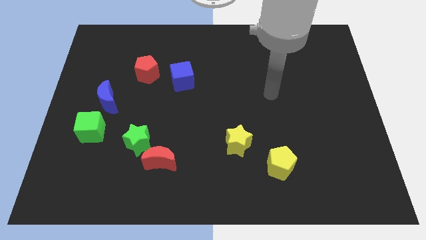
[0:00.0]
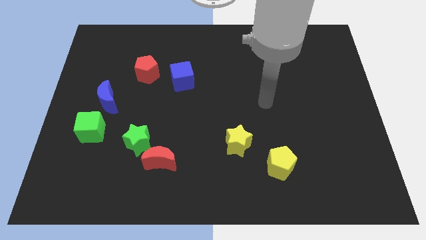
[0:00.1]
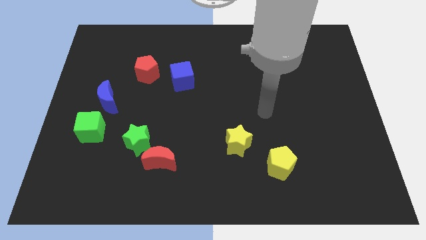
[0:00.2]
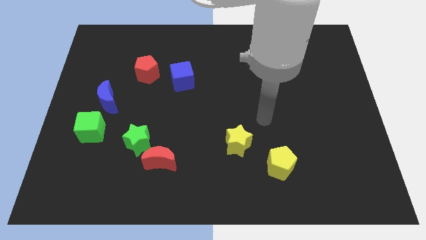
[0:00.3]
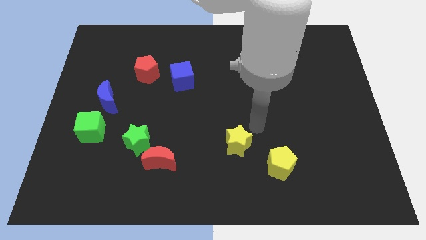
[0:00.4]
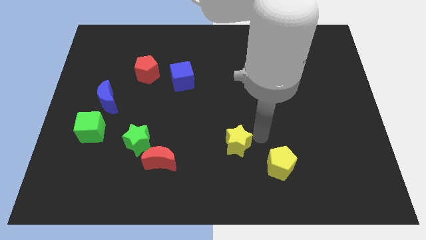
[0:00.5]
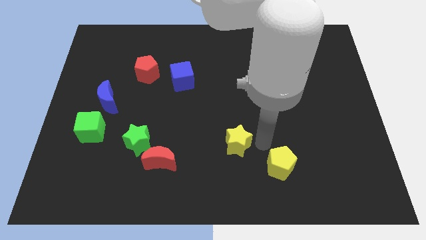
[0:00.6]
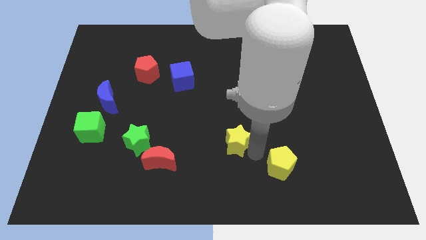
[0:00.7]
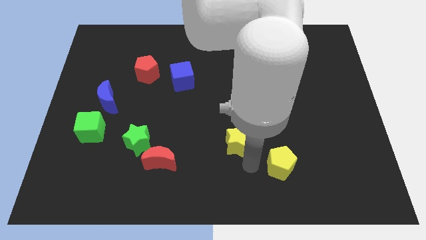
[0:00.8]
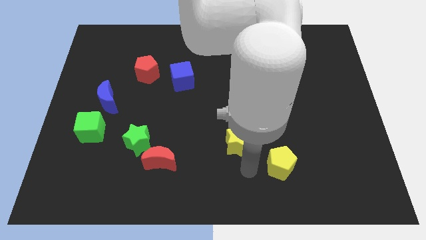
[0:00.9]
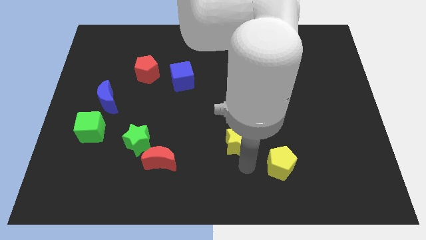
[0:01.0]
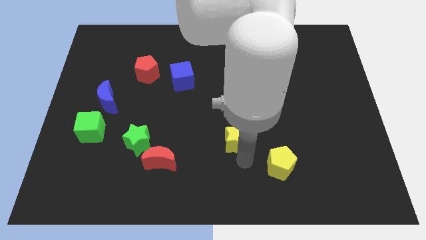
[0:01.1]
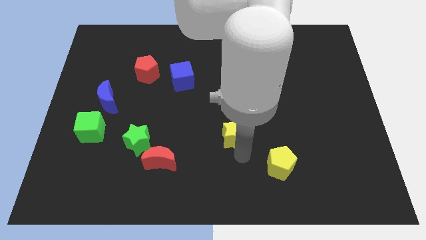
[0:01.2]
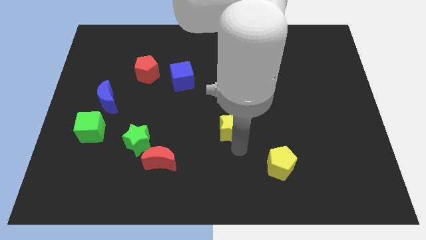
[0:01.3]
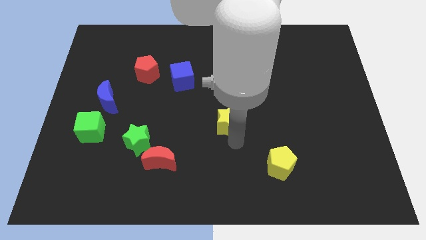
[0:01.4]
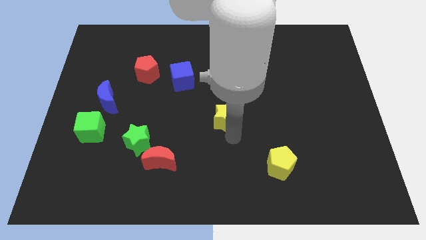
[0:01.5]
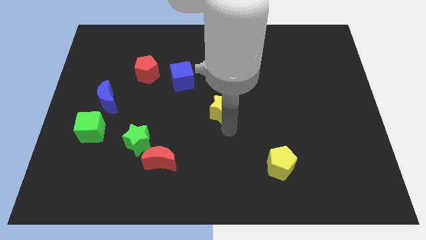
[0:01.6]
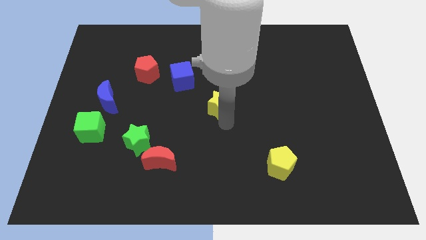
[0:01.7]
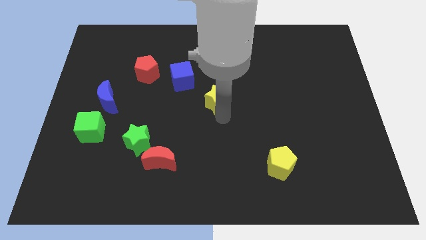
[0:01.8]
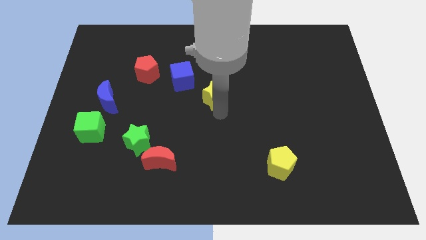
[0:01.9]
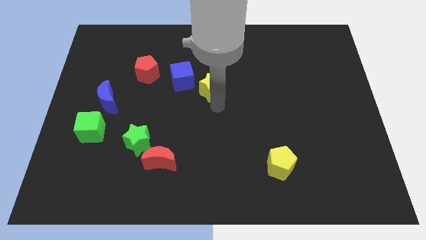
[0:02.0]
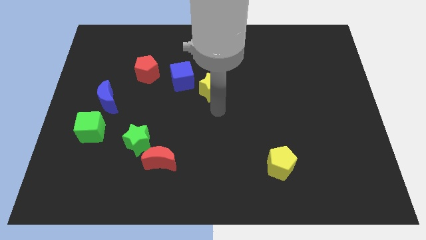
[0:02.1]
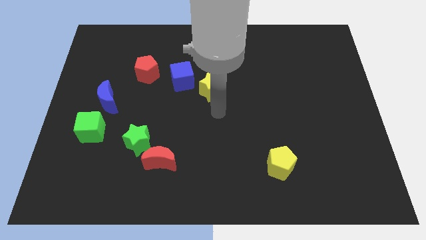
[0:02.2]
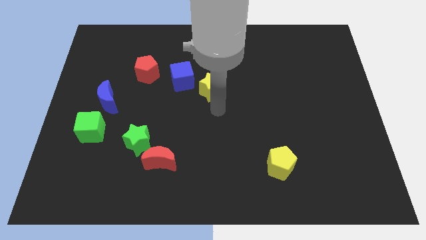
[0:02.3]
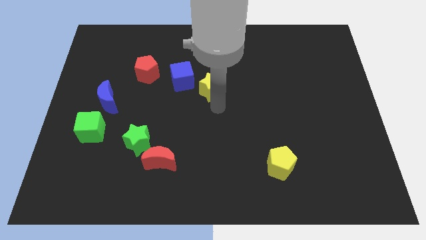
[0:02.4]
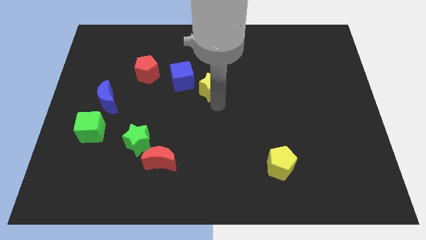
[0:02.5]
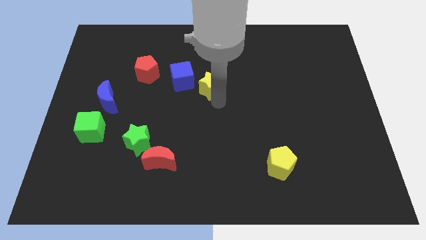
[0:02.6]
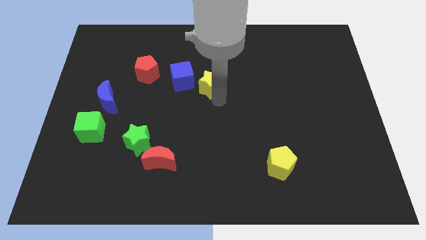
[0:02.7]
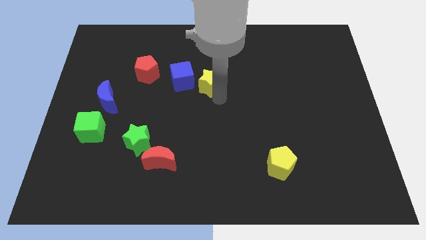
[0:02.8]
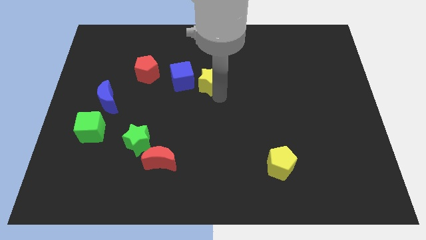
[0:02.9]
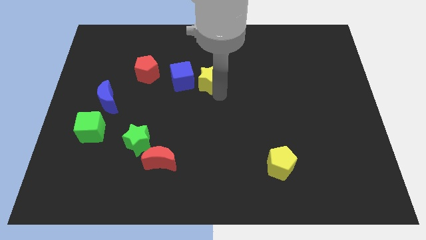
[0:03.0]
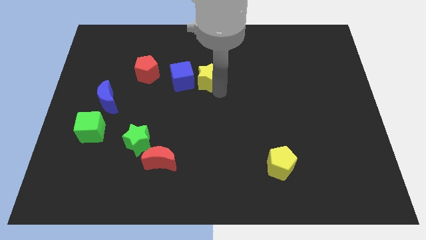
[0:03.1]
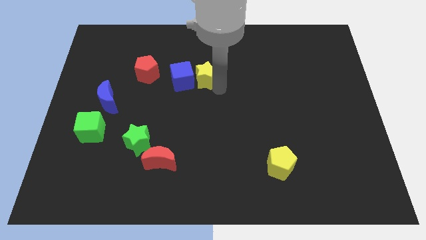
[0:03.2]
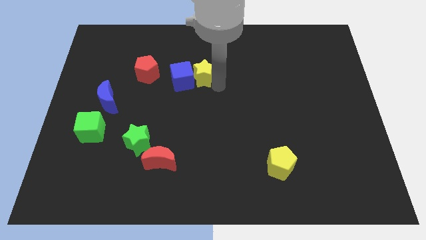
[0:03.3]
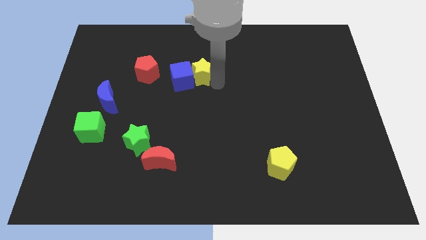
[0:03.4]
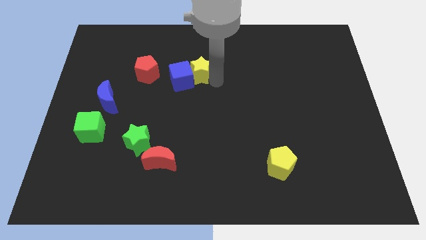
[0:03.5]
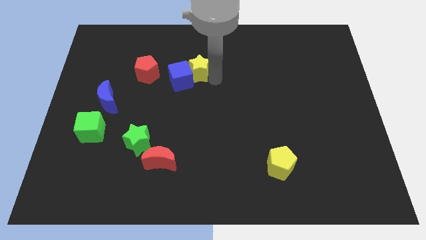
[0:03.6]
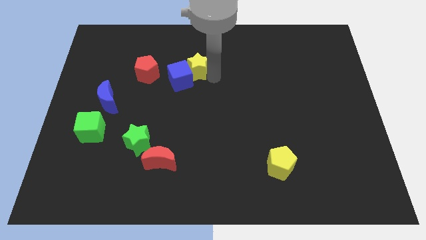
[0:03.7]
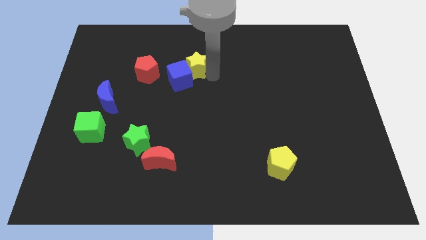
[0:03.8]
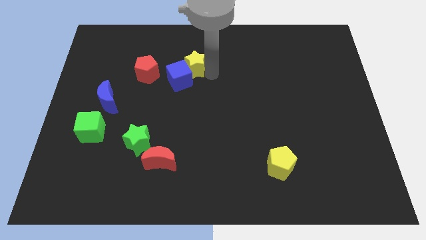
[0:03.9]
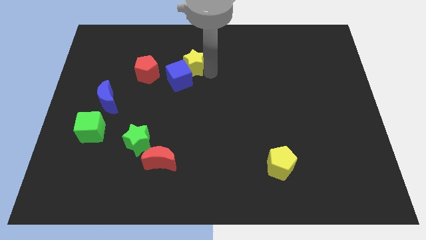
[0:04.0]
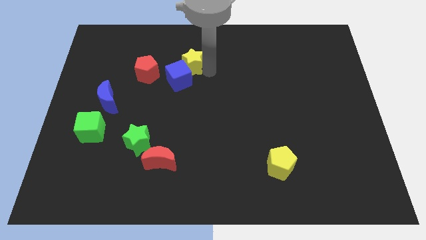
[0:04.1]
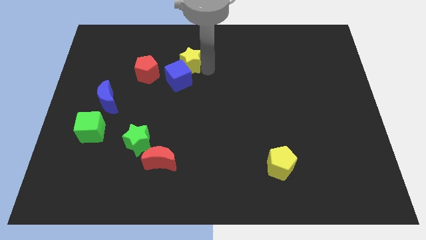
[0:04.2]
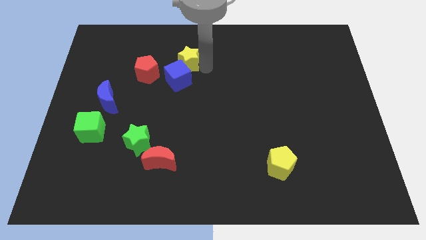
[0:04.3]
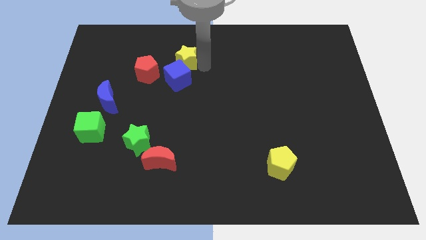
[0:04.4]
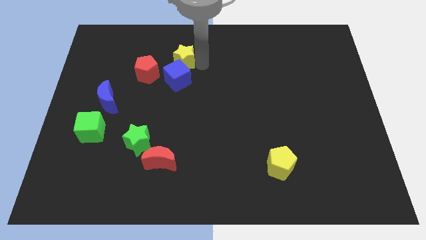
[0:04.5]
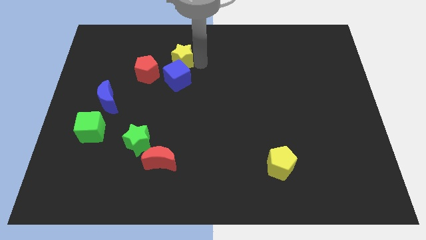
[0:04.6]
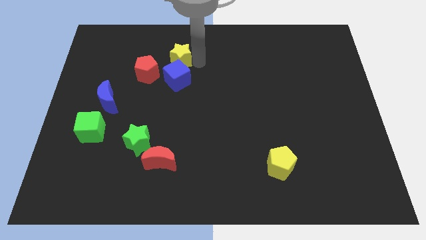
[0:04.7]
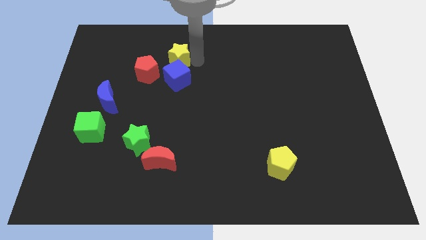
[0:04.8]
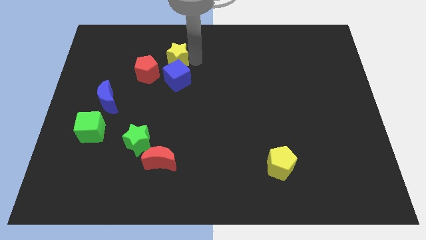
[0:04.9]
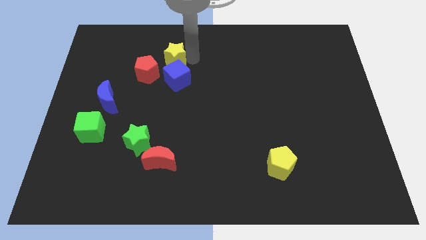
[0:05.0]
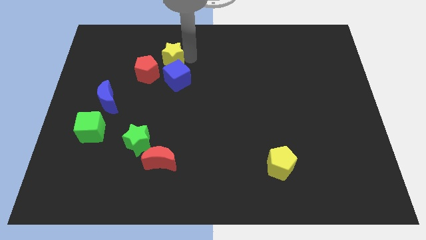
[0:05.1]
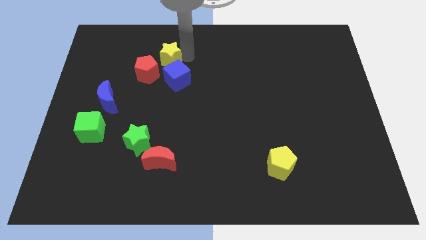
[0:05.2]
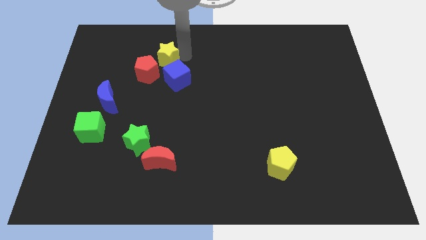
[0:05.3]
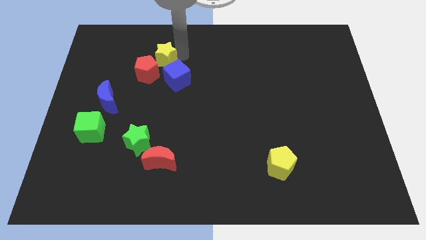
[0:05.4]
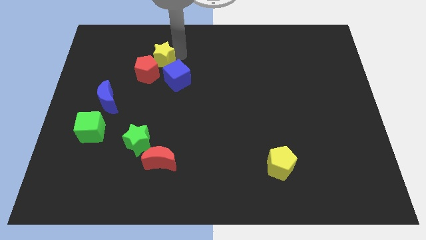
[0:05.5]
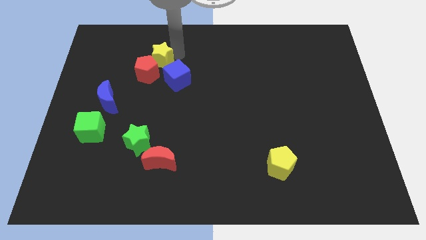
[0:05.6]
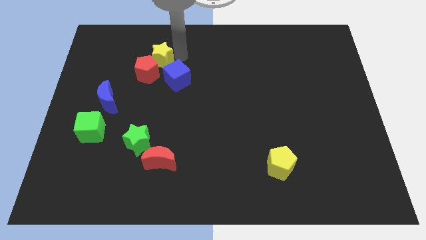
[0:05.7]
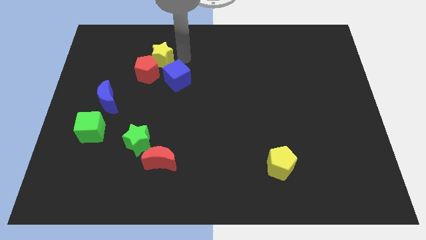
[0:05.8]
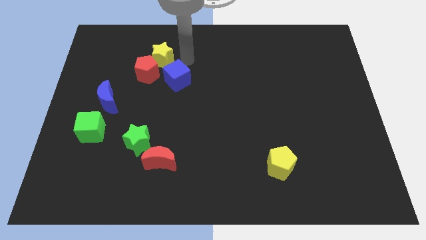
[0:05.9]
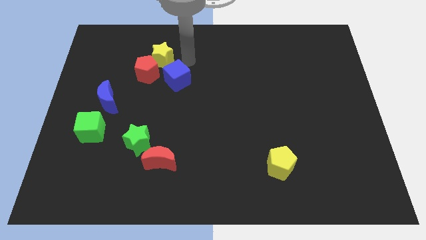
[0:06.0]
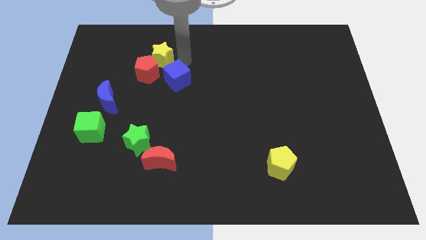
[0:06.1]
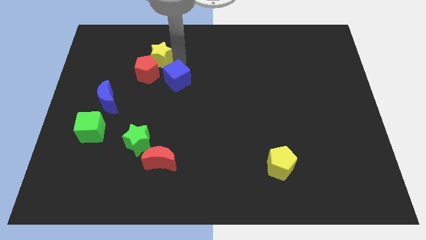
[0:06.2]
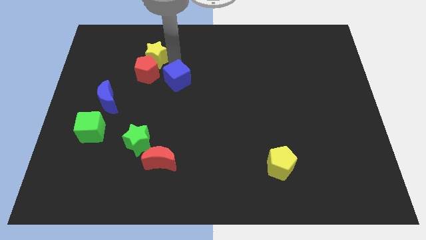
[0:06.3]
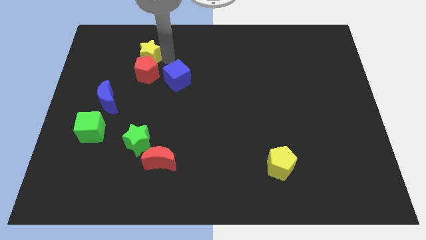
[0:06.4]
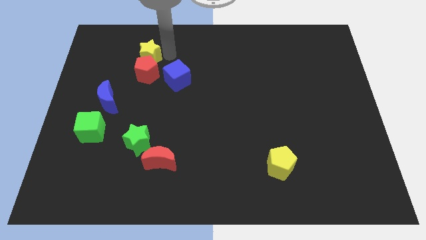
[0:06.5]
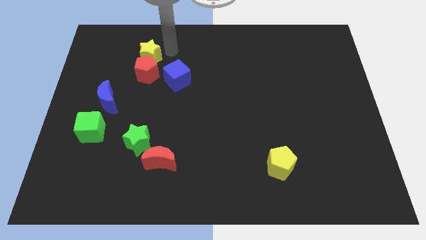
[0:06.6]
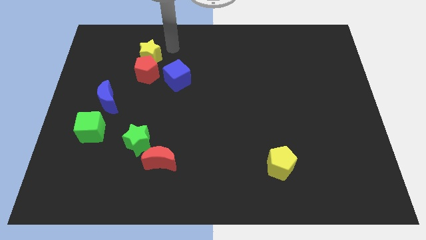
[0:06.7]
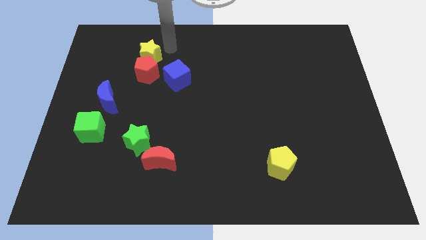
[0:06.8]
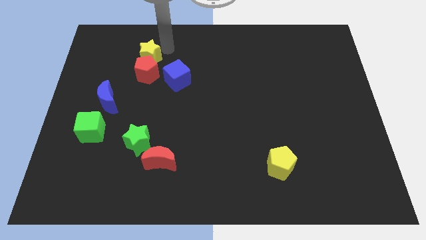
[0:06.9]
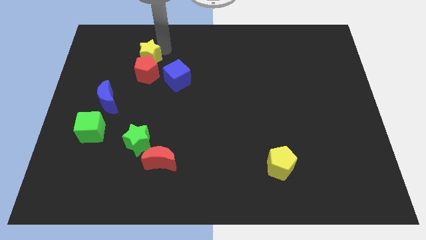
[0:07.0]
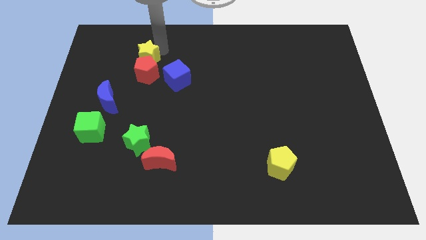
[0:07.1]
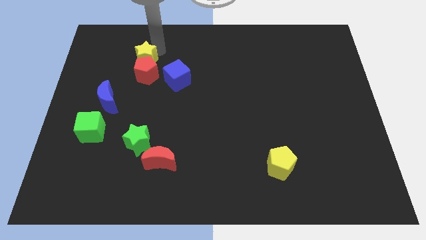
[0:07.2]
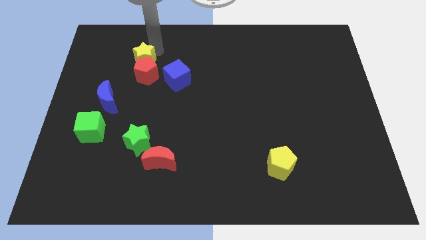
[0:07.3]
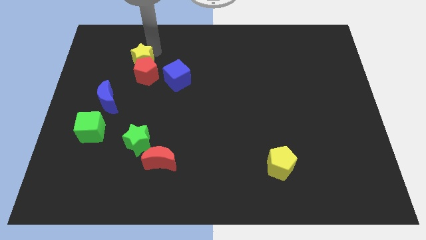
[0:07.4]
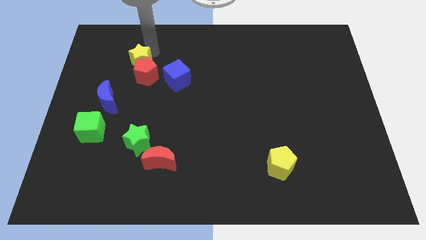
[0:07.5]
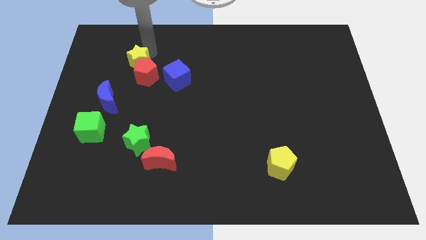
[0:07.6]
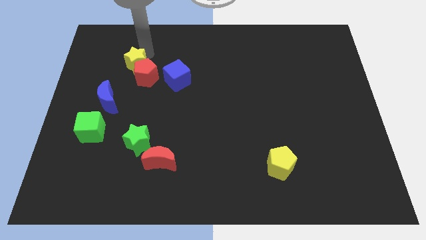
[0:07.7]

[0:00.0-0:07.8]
put the yellow star just left of the red pentagon
